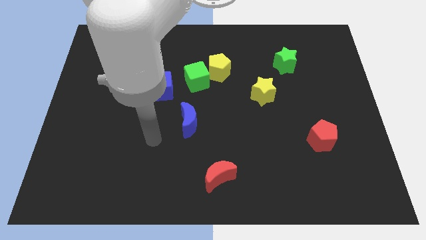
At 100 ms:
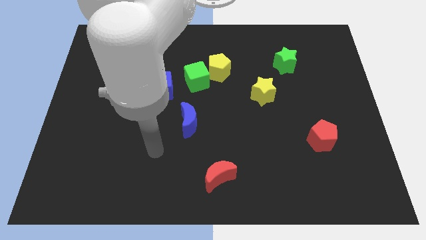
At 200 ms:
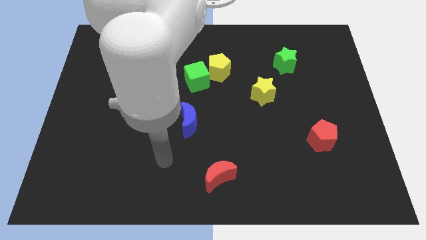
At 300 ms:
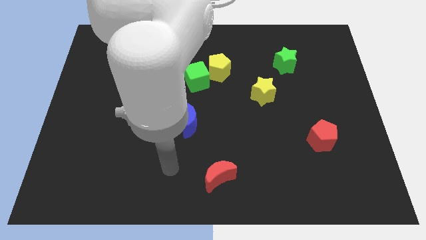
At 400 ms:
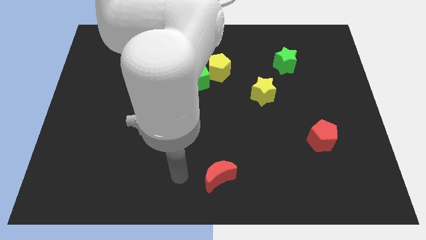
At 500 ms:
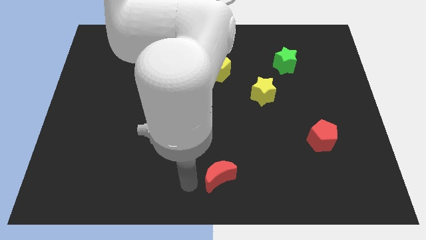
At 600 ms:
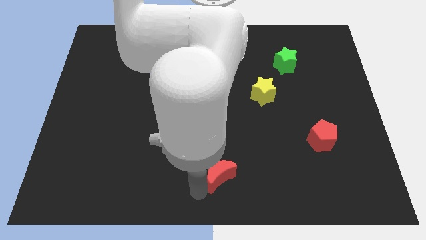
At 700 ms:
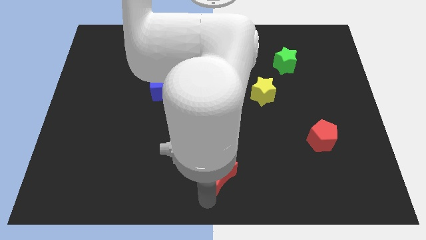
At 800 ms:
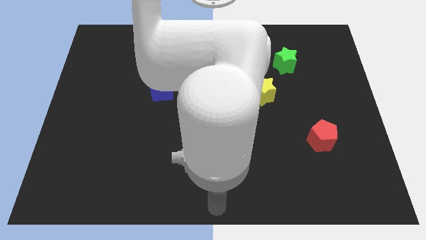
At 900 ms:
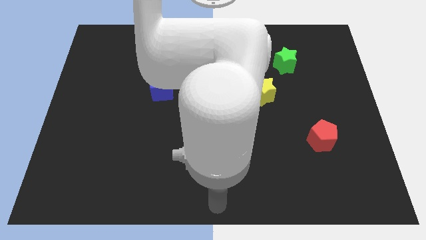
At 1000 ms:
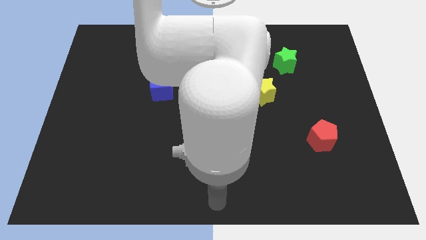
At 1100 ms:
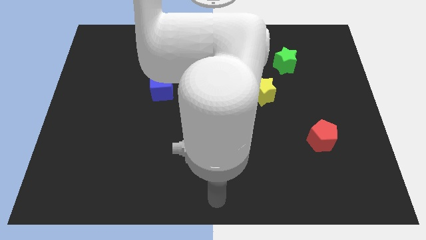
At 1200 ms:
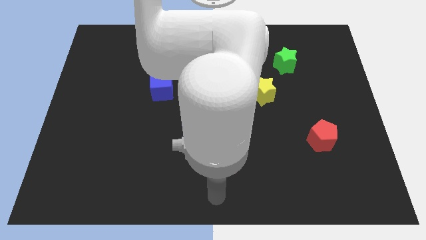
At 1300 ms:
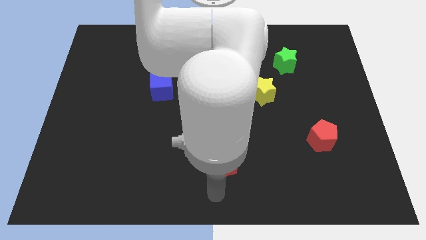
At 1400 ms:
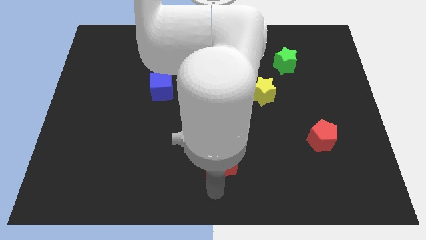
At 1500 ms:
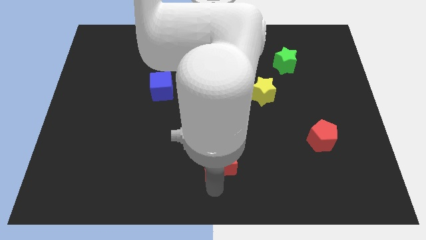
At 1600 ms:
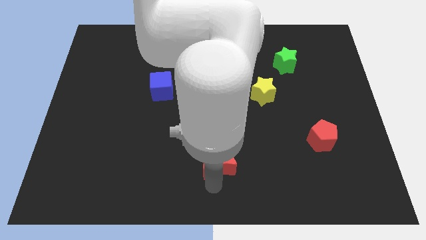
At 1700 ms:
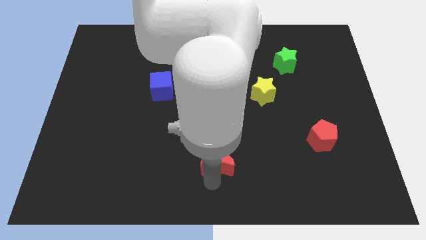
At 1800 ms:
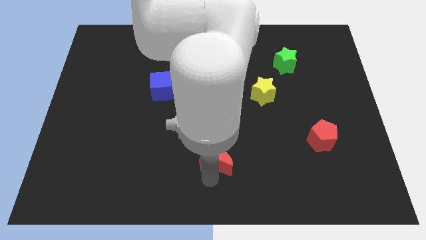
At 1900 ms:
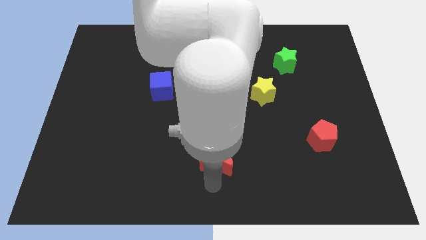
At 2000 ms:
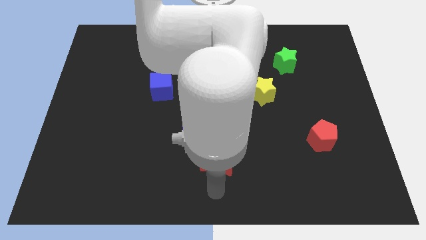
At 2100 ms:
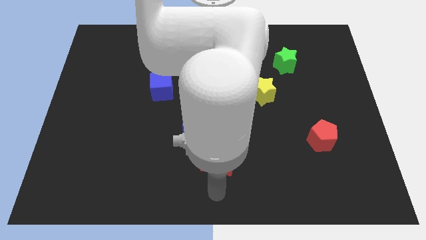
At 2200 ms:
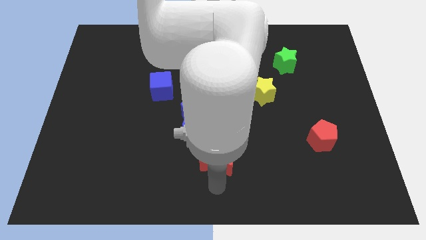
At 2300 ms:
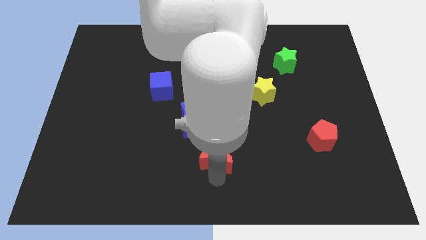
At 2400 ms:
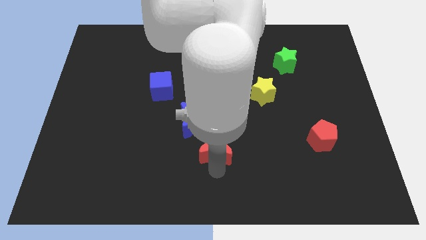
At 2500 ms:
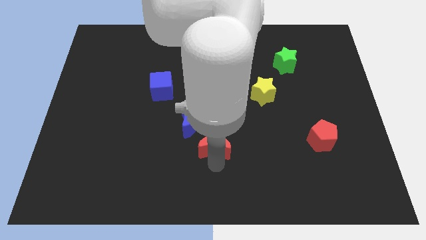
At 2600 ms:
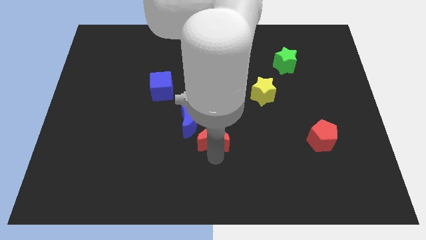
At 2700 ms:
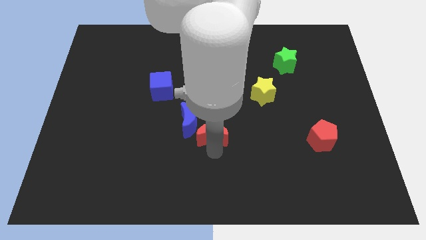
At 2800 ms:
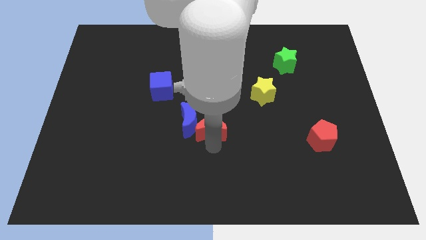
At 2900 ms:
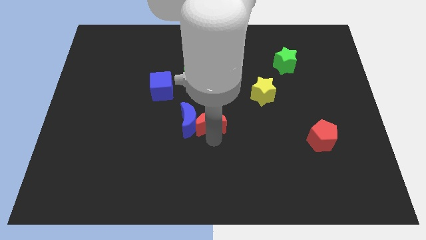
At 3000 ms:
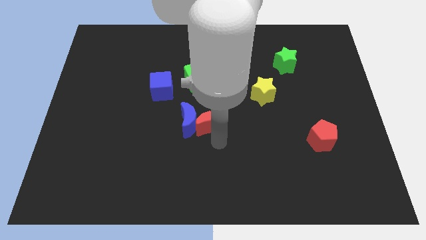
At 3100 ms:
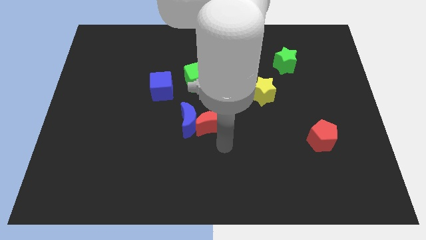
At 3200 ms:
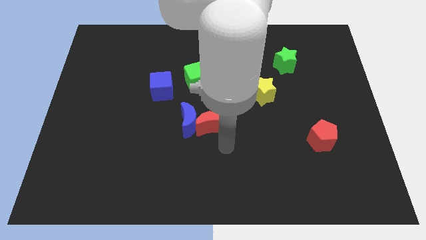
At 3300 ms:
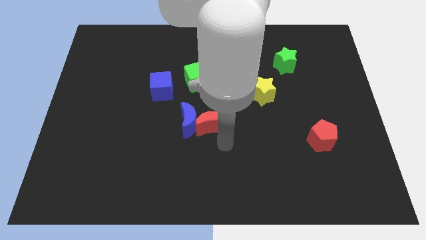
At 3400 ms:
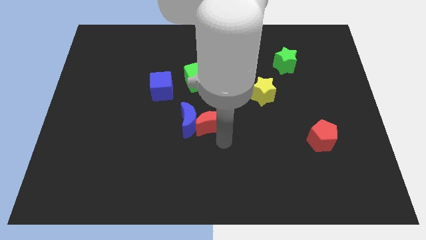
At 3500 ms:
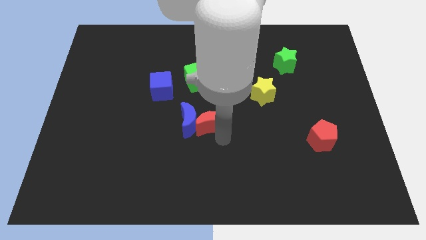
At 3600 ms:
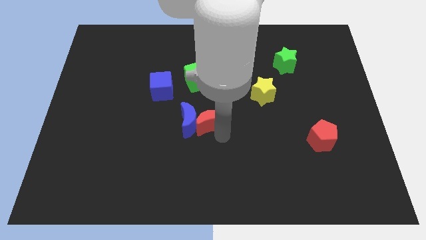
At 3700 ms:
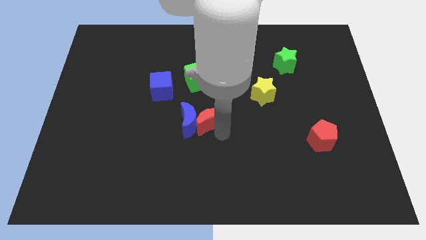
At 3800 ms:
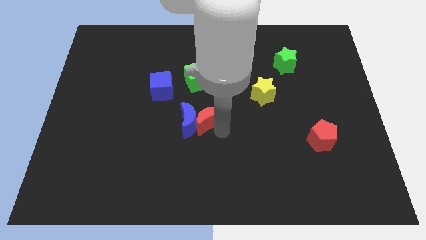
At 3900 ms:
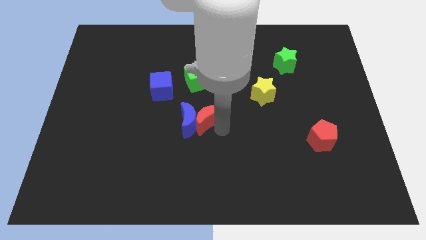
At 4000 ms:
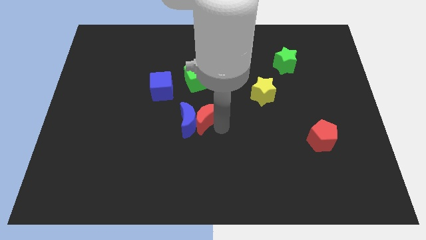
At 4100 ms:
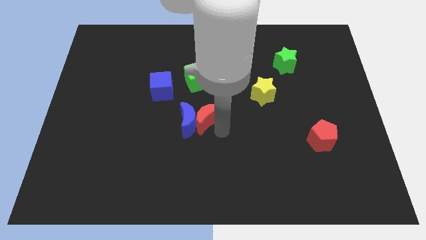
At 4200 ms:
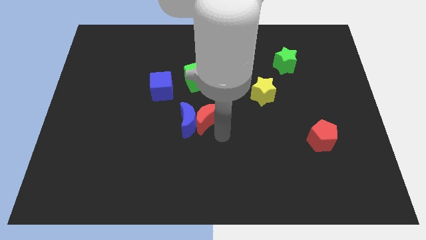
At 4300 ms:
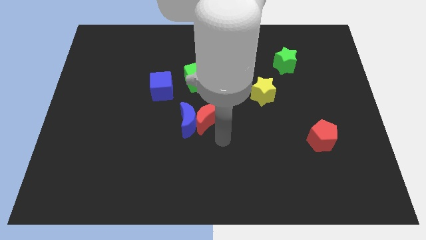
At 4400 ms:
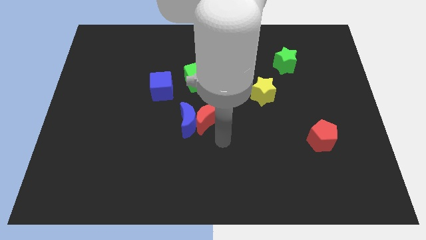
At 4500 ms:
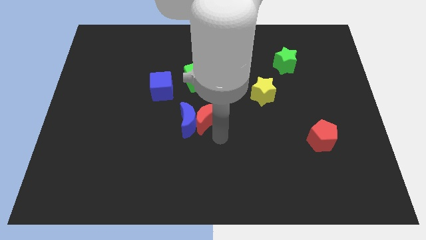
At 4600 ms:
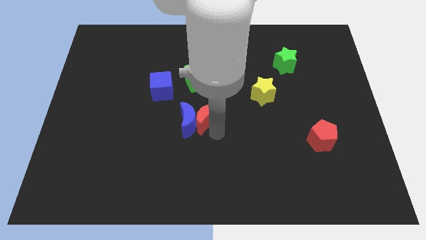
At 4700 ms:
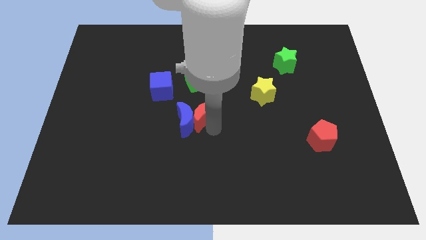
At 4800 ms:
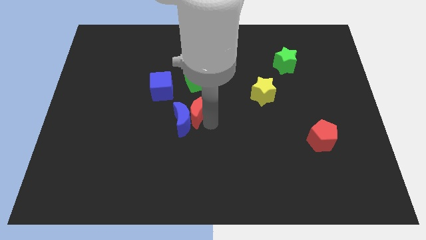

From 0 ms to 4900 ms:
put the red moon to the bottom right of the blue cube

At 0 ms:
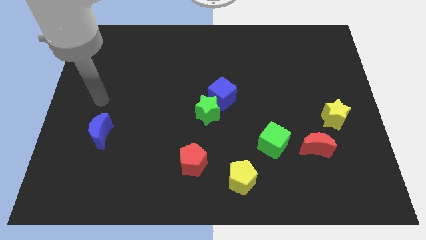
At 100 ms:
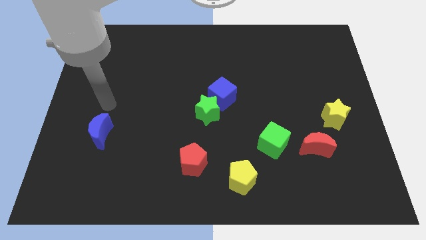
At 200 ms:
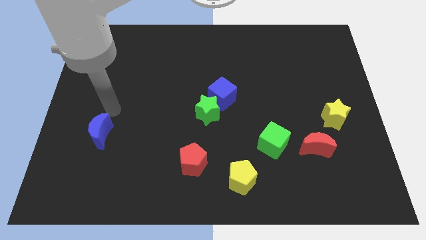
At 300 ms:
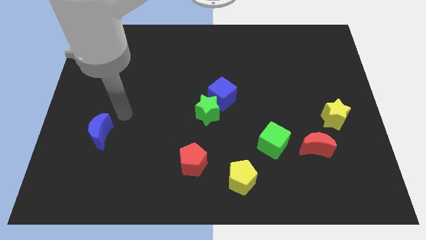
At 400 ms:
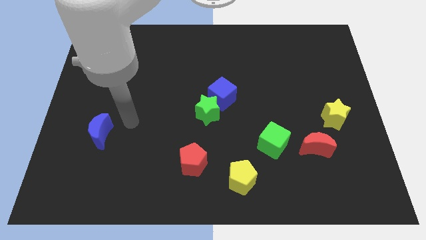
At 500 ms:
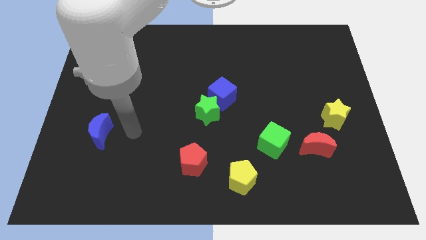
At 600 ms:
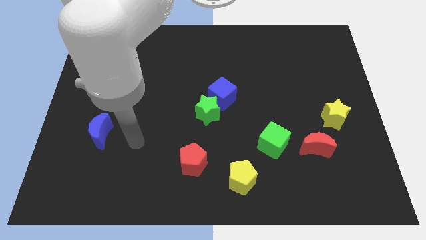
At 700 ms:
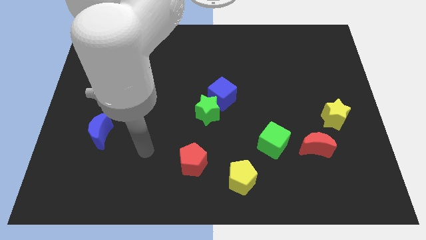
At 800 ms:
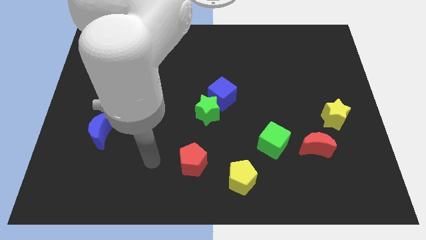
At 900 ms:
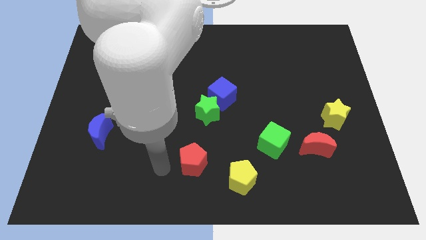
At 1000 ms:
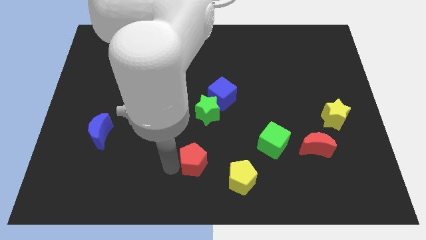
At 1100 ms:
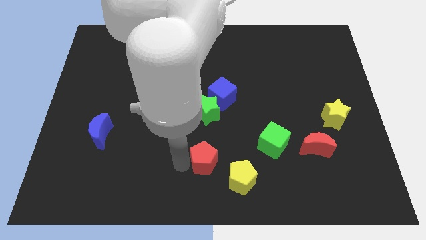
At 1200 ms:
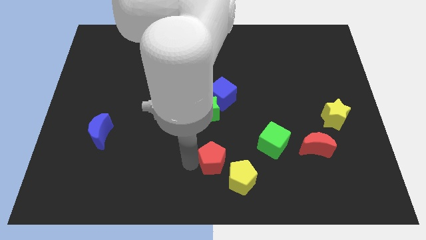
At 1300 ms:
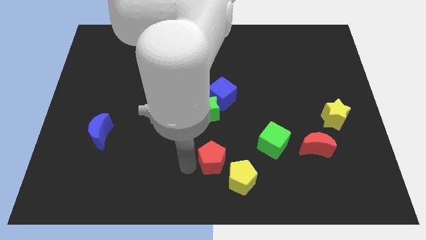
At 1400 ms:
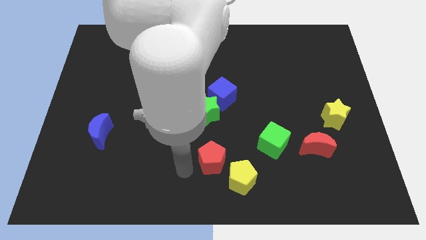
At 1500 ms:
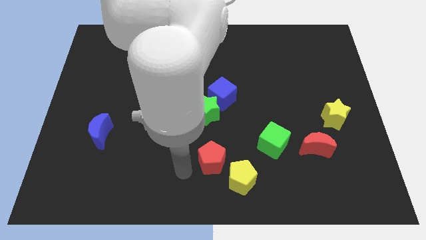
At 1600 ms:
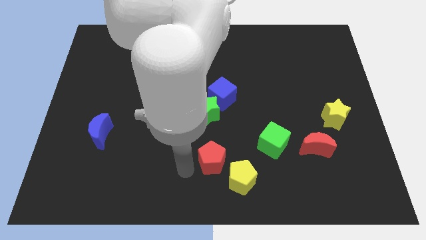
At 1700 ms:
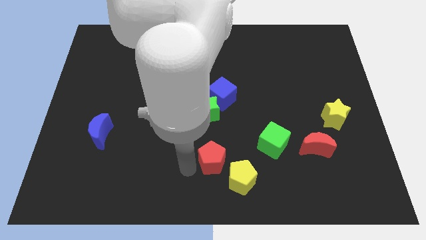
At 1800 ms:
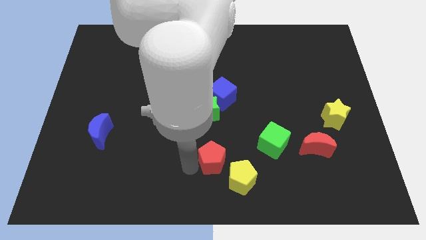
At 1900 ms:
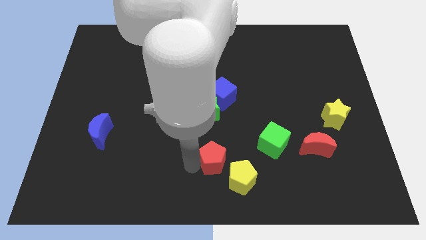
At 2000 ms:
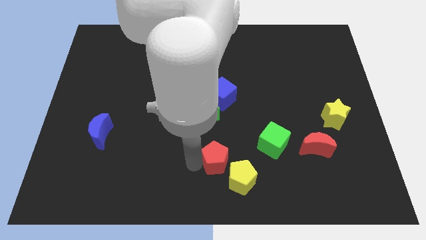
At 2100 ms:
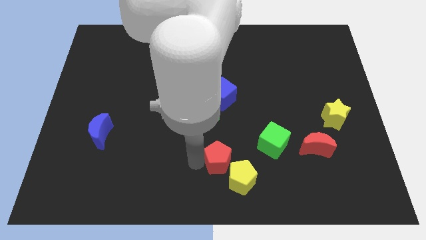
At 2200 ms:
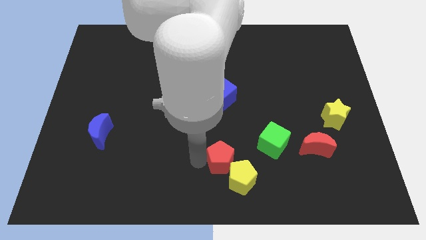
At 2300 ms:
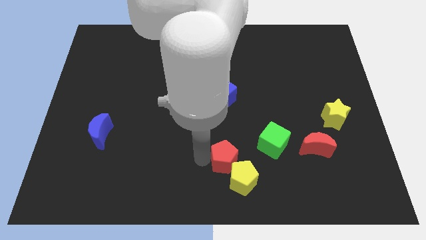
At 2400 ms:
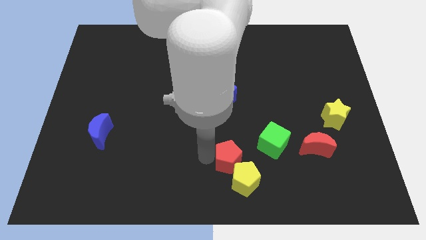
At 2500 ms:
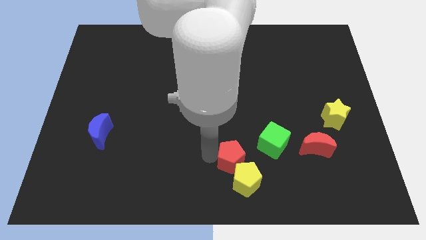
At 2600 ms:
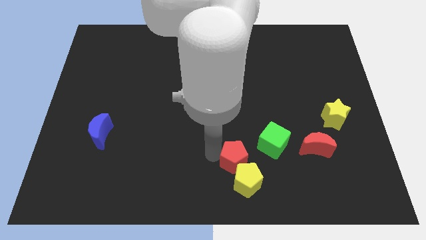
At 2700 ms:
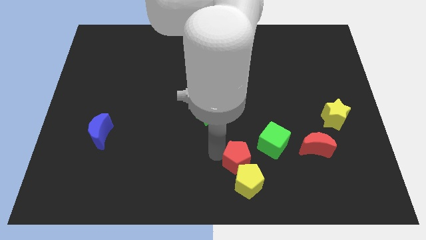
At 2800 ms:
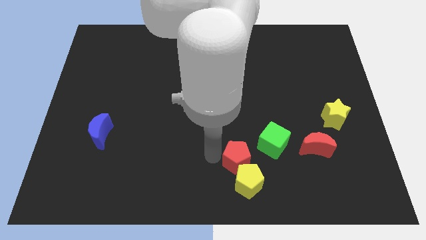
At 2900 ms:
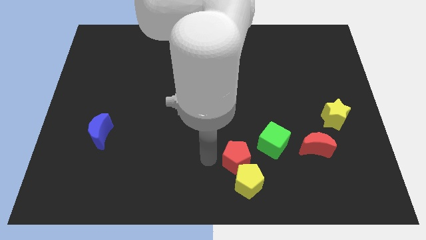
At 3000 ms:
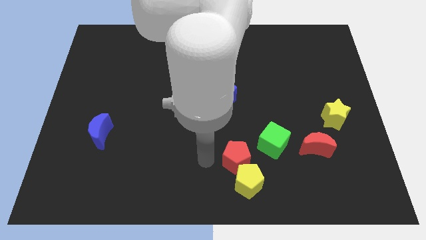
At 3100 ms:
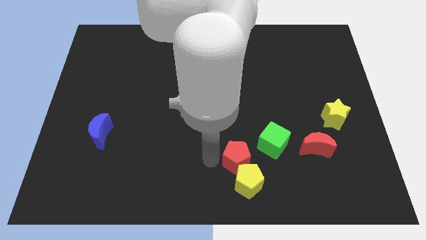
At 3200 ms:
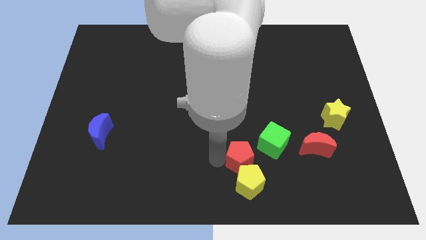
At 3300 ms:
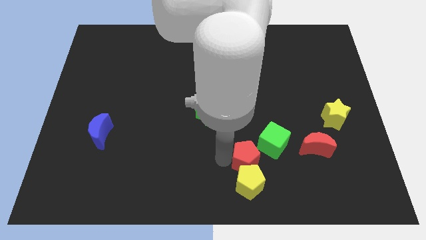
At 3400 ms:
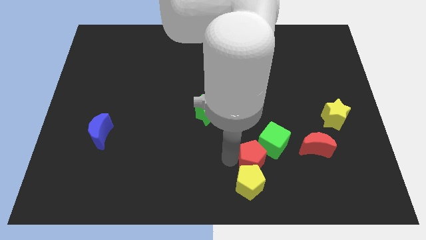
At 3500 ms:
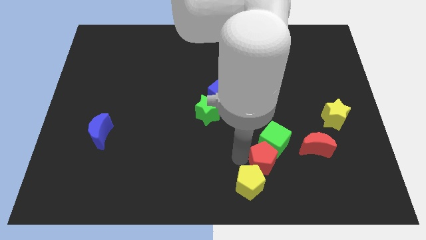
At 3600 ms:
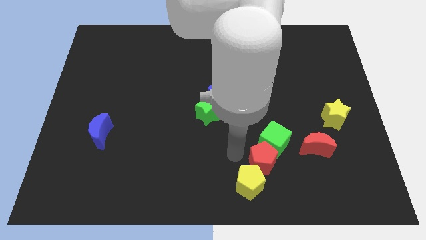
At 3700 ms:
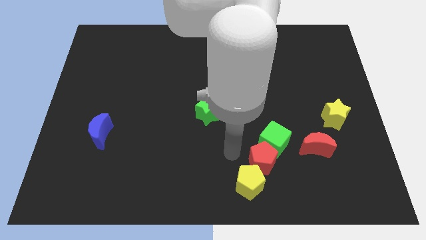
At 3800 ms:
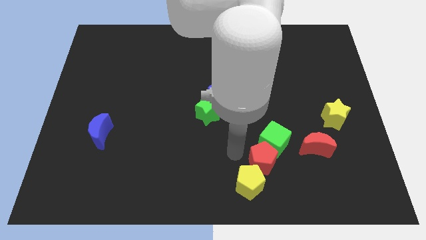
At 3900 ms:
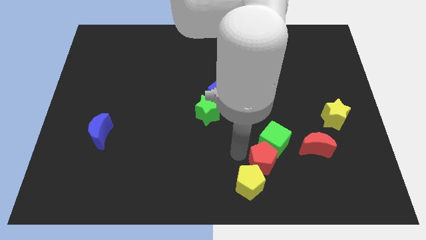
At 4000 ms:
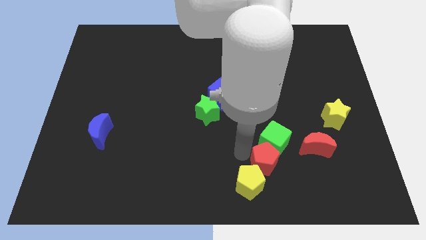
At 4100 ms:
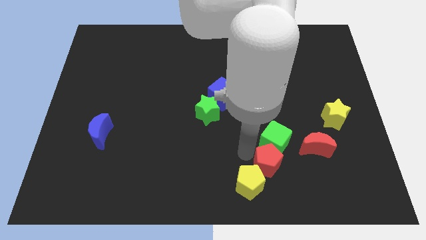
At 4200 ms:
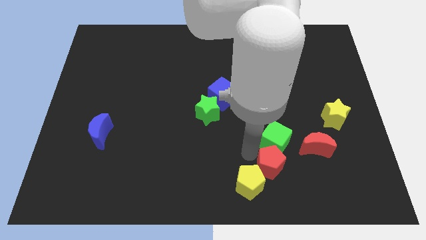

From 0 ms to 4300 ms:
push the red pentagon to the bottom left of the red moon
